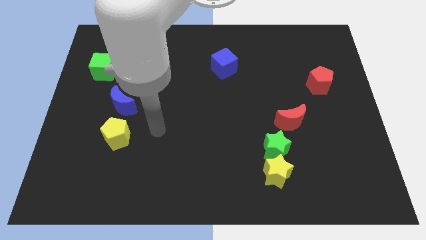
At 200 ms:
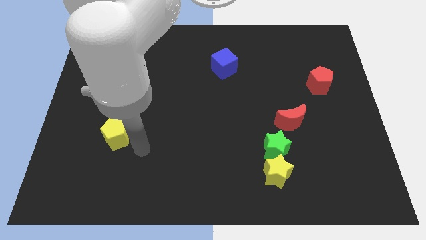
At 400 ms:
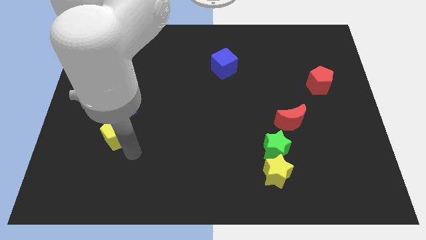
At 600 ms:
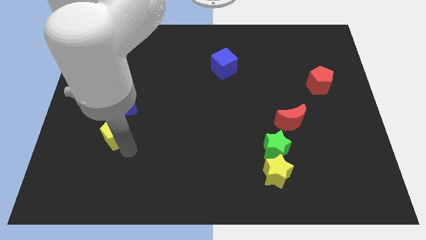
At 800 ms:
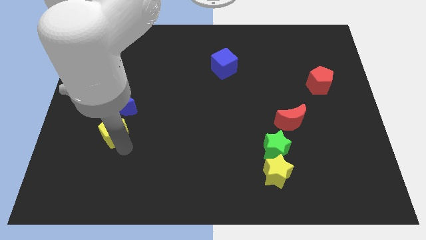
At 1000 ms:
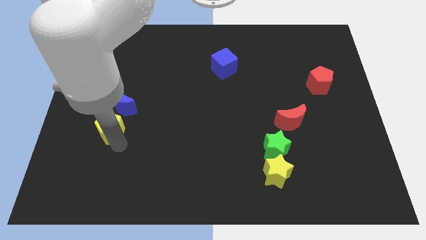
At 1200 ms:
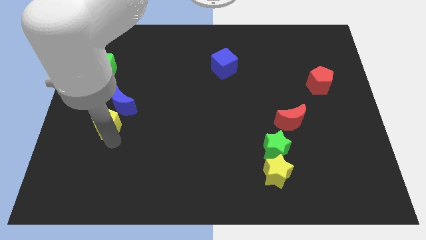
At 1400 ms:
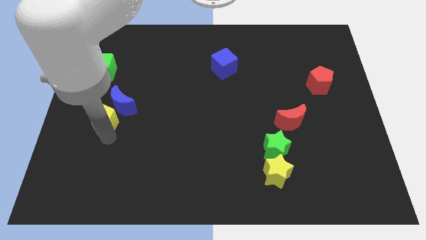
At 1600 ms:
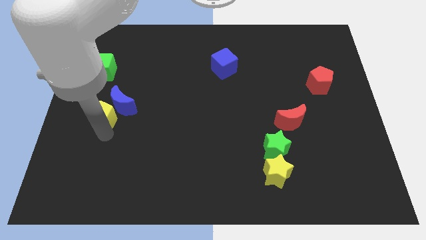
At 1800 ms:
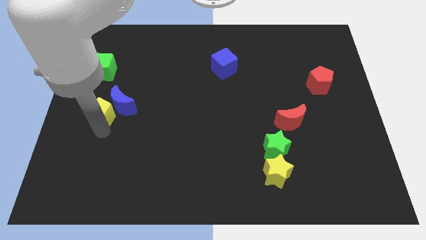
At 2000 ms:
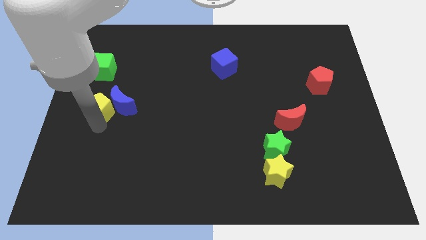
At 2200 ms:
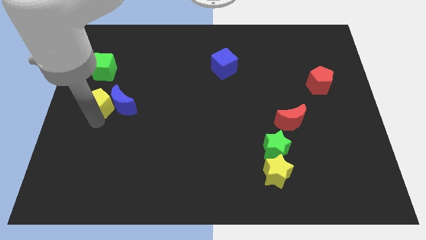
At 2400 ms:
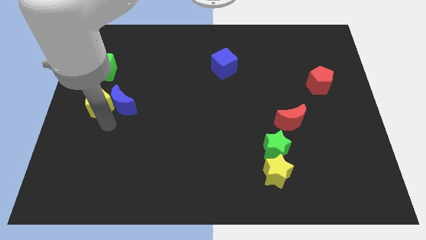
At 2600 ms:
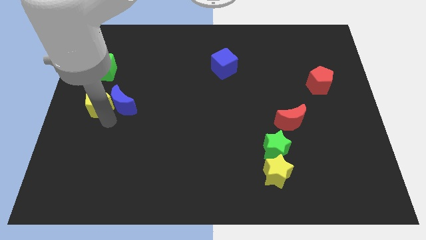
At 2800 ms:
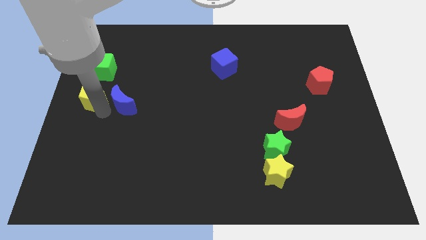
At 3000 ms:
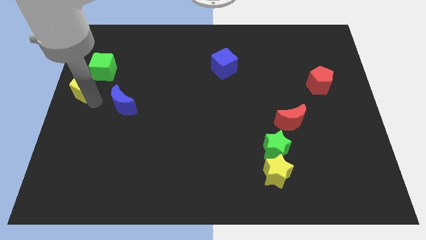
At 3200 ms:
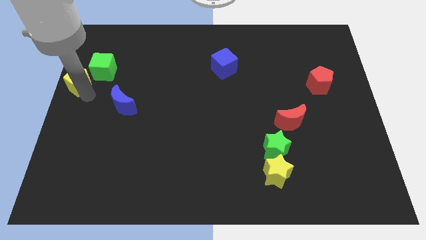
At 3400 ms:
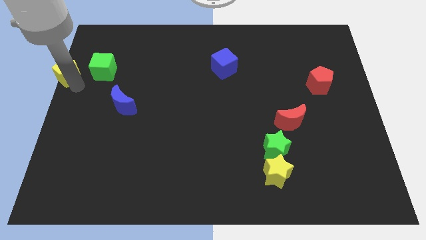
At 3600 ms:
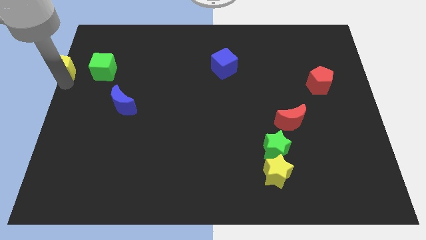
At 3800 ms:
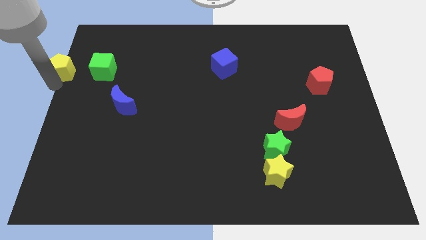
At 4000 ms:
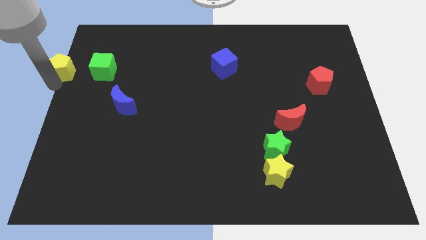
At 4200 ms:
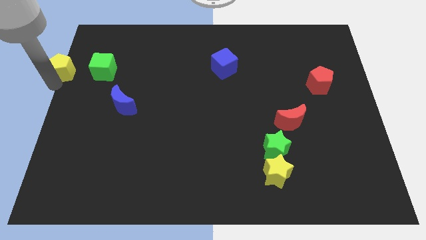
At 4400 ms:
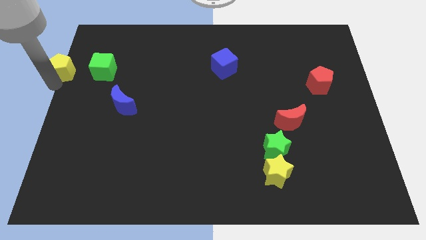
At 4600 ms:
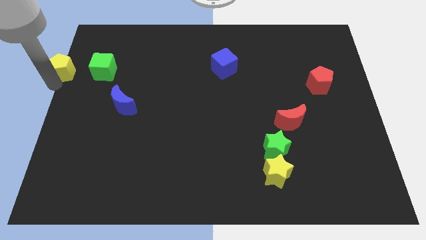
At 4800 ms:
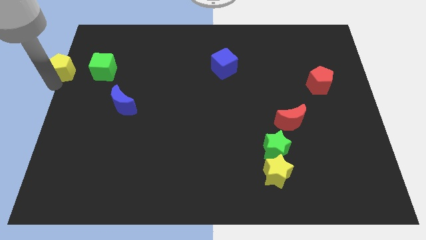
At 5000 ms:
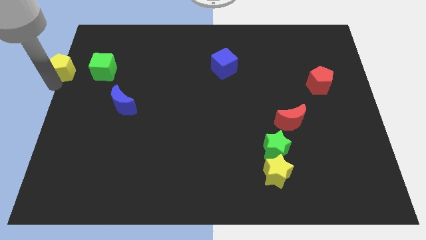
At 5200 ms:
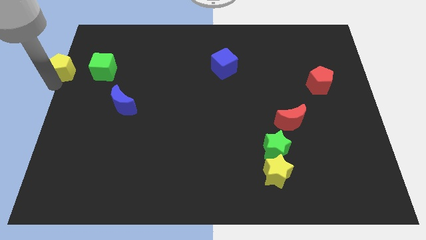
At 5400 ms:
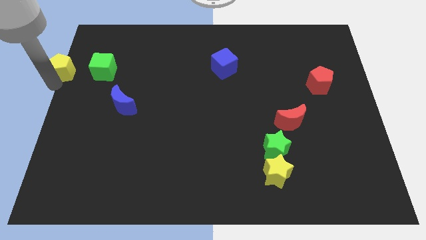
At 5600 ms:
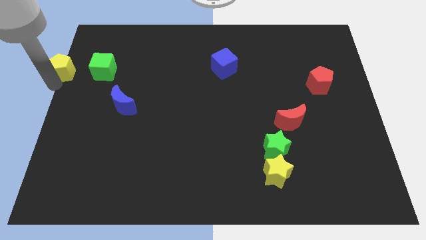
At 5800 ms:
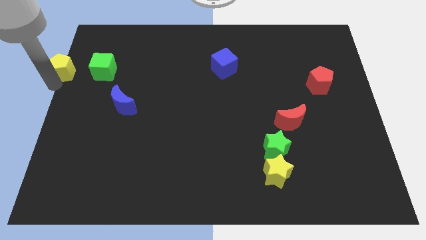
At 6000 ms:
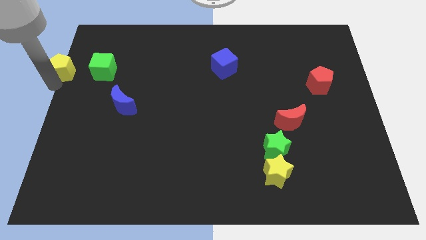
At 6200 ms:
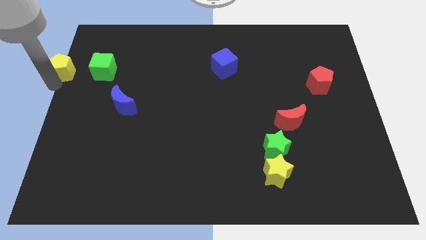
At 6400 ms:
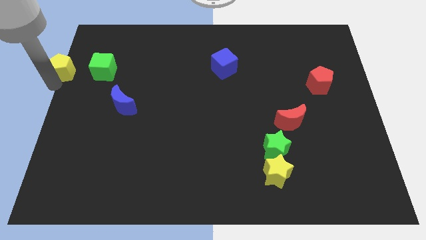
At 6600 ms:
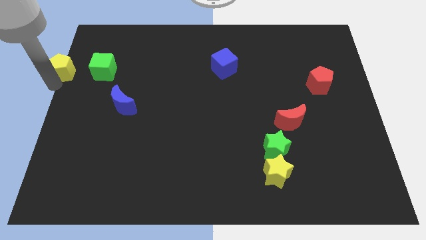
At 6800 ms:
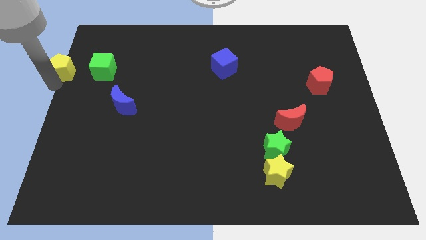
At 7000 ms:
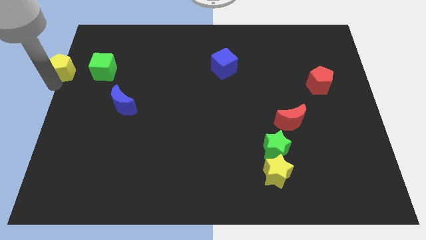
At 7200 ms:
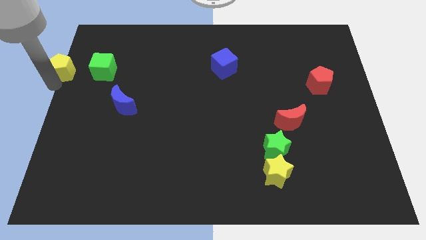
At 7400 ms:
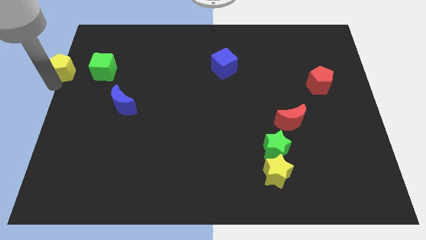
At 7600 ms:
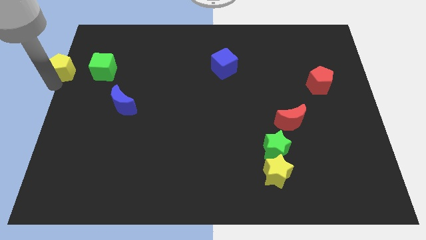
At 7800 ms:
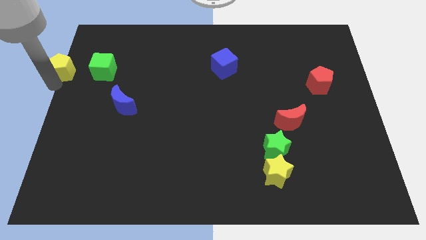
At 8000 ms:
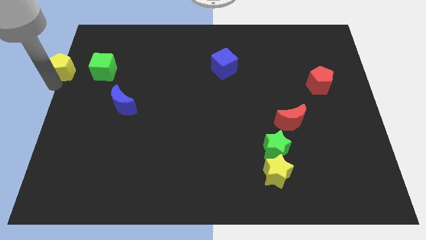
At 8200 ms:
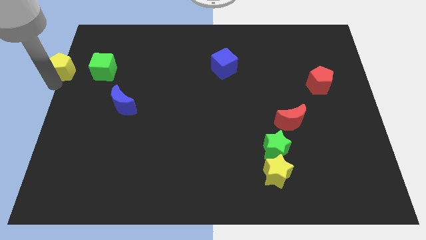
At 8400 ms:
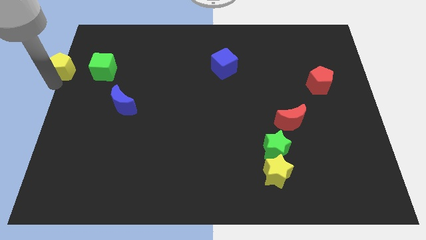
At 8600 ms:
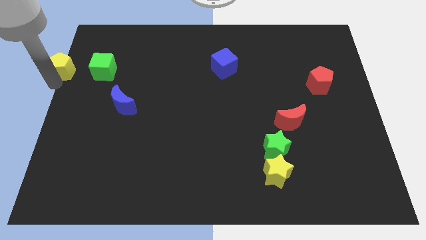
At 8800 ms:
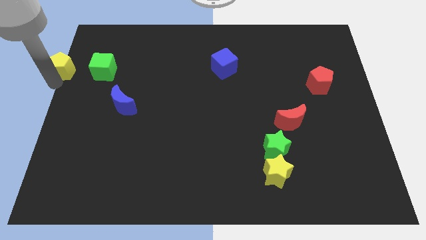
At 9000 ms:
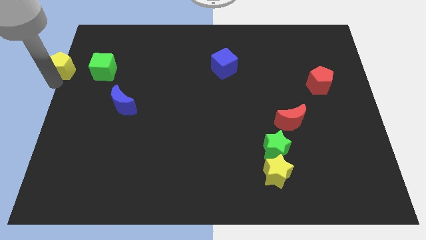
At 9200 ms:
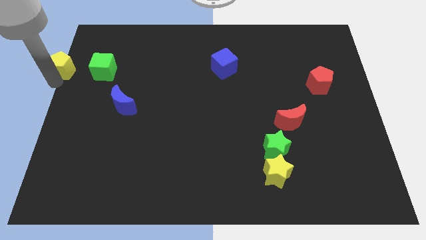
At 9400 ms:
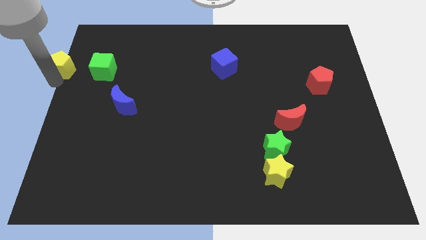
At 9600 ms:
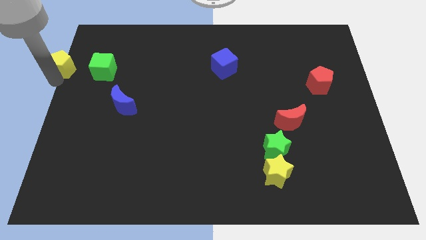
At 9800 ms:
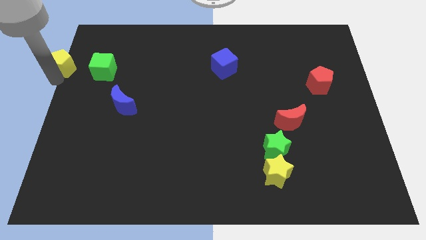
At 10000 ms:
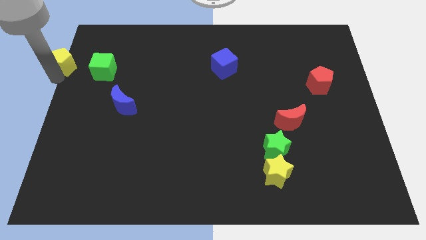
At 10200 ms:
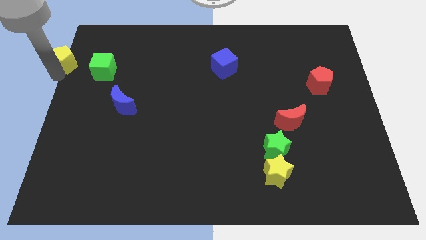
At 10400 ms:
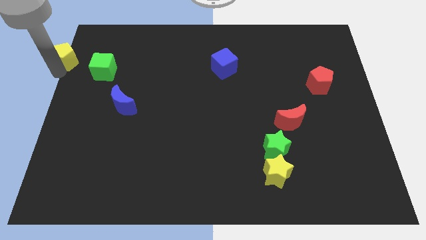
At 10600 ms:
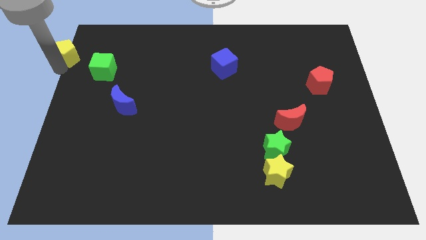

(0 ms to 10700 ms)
slide the yellow pentagon to the top left of the board
